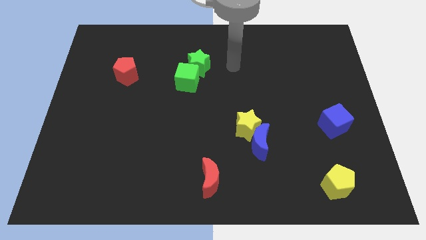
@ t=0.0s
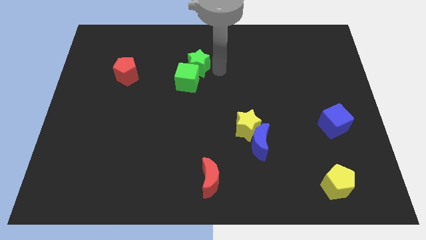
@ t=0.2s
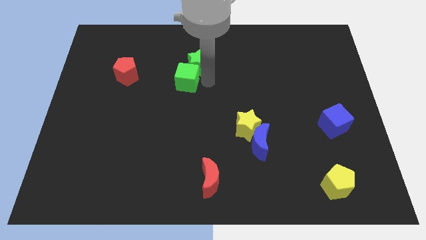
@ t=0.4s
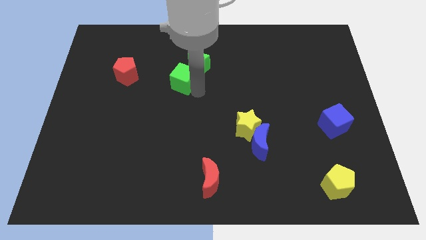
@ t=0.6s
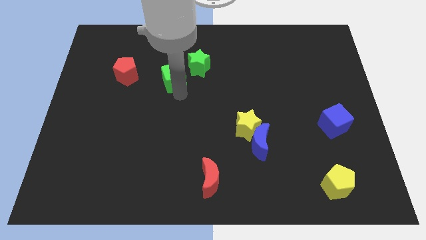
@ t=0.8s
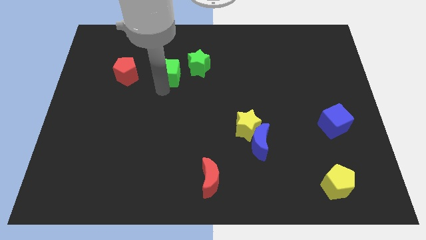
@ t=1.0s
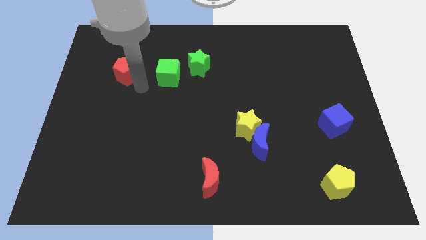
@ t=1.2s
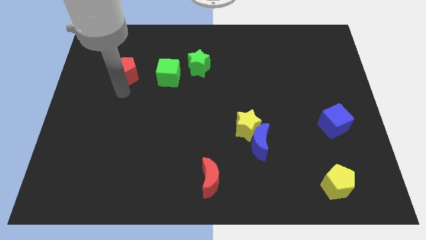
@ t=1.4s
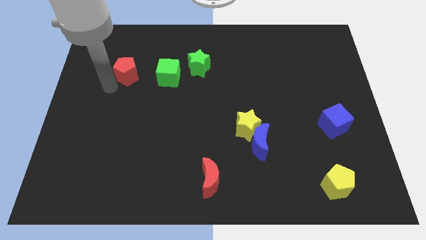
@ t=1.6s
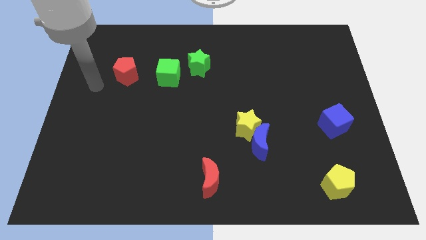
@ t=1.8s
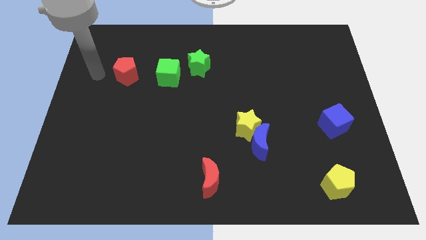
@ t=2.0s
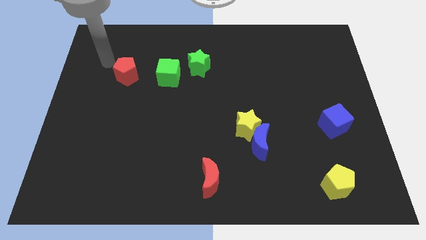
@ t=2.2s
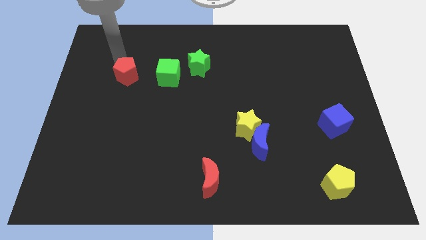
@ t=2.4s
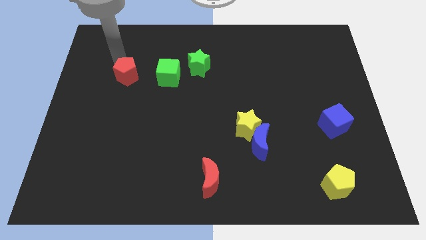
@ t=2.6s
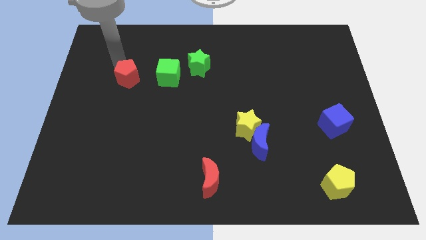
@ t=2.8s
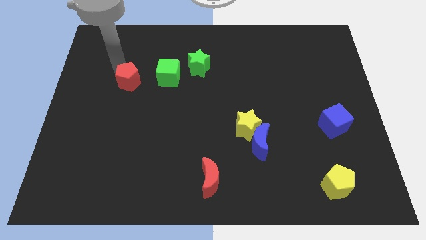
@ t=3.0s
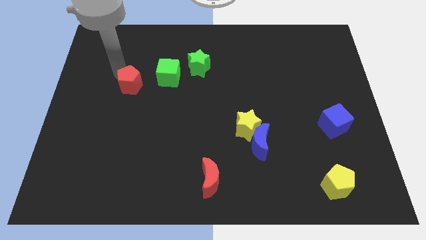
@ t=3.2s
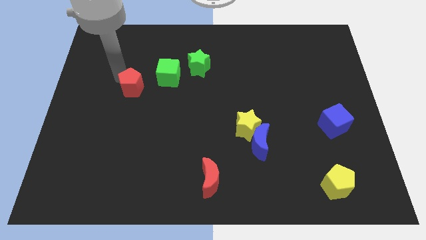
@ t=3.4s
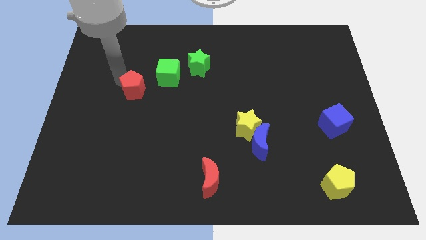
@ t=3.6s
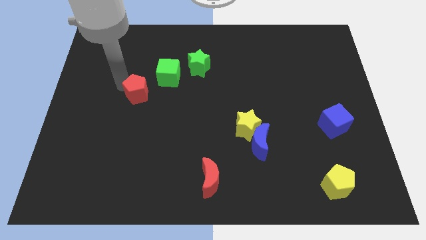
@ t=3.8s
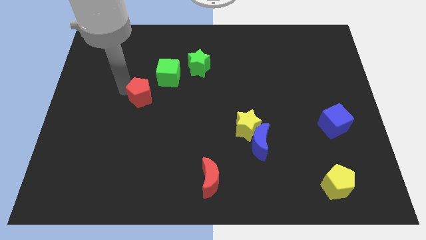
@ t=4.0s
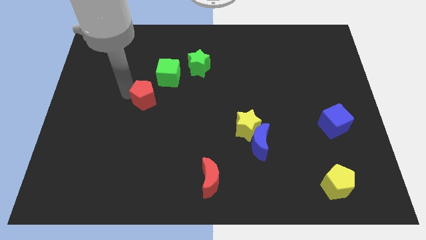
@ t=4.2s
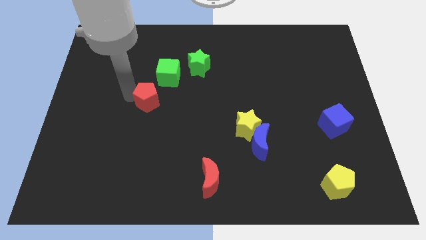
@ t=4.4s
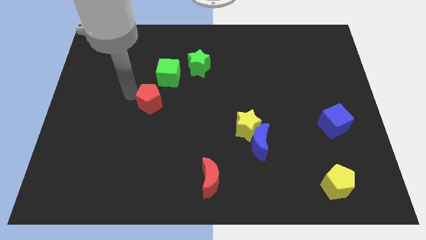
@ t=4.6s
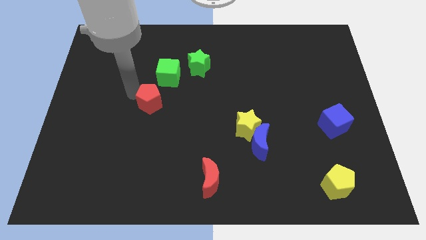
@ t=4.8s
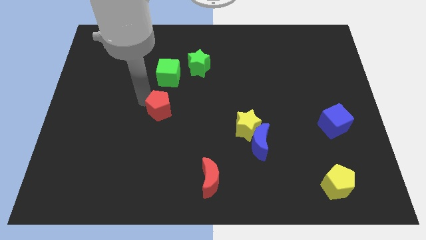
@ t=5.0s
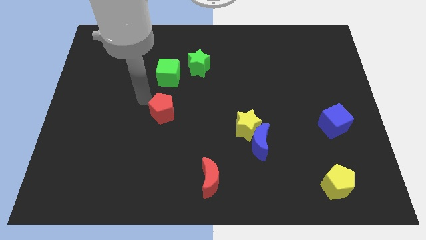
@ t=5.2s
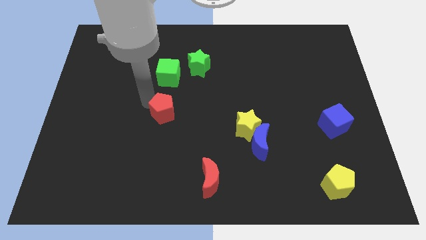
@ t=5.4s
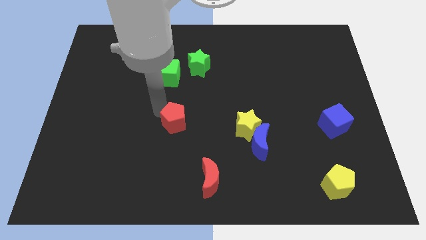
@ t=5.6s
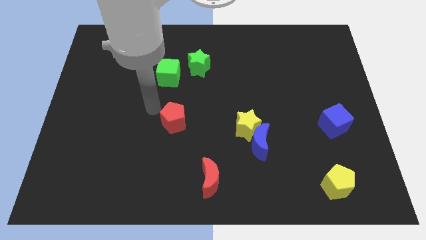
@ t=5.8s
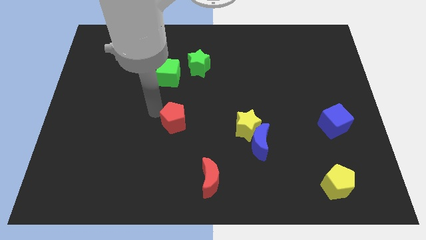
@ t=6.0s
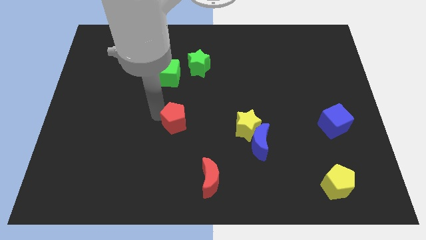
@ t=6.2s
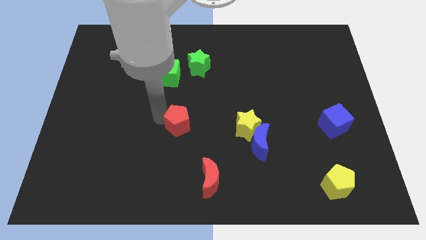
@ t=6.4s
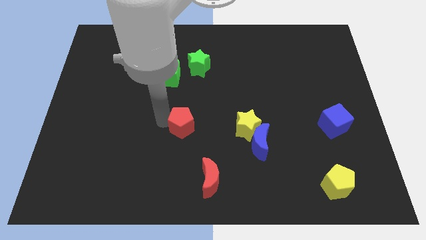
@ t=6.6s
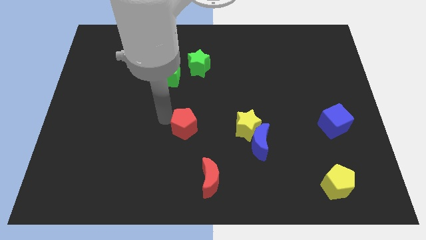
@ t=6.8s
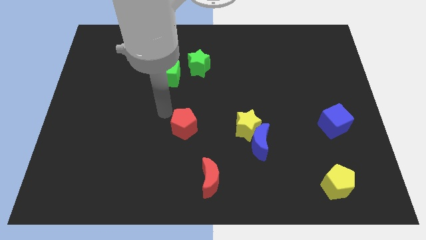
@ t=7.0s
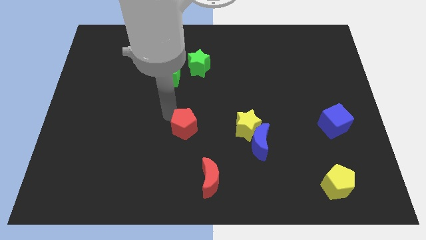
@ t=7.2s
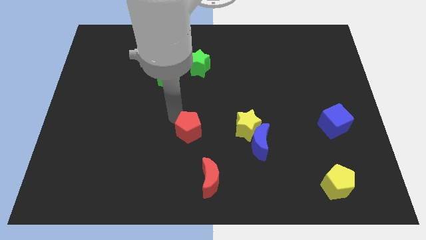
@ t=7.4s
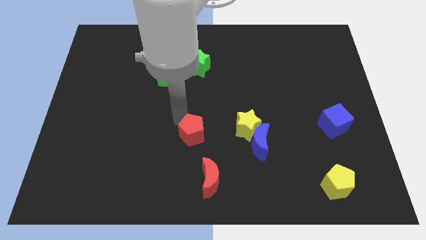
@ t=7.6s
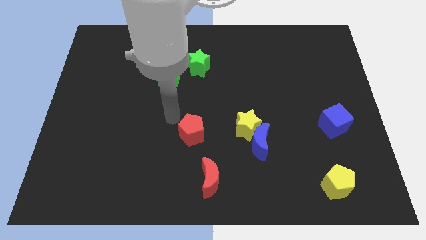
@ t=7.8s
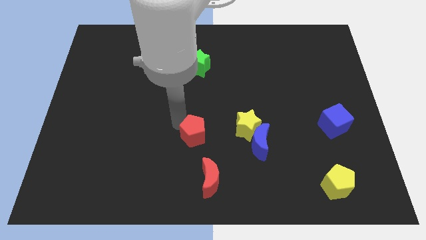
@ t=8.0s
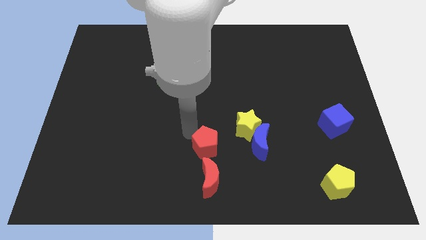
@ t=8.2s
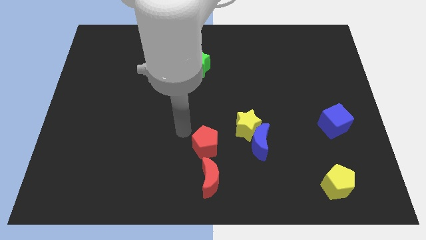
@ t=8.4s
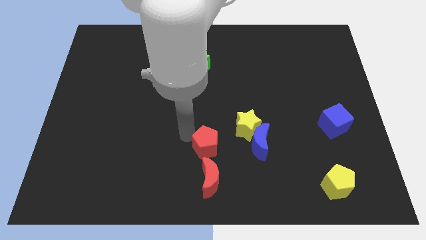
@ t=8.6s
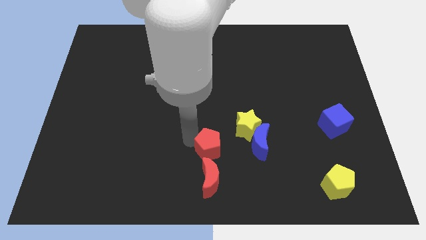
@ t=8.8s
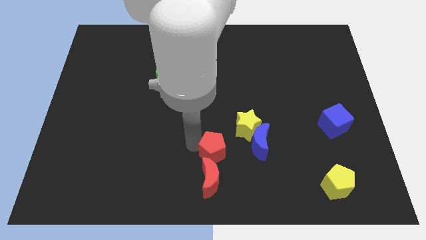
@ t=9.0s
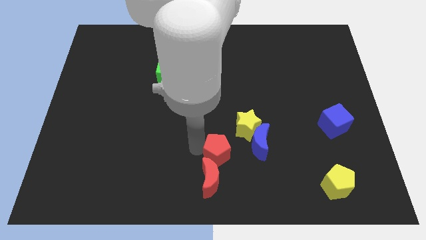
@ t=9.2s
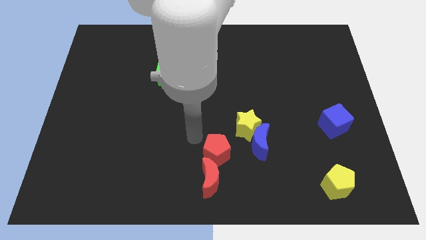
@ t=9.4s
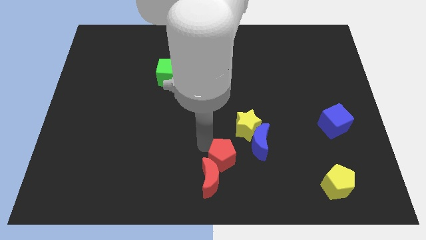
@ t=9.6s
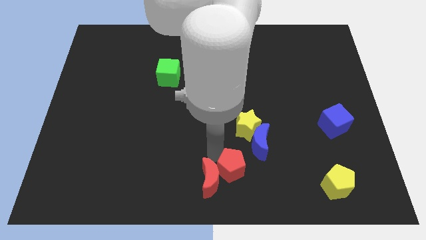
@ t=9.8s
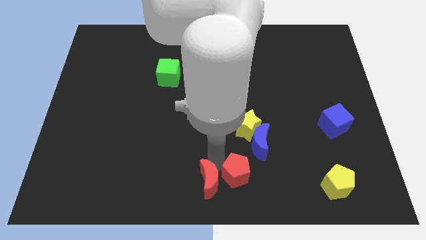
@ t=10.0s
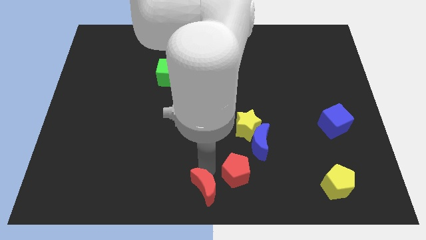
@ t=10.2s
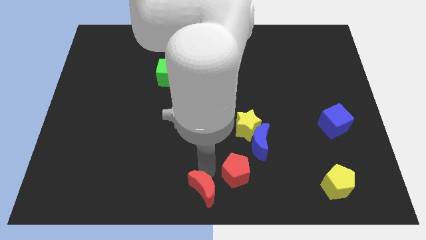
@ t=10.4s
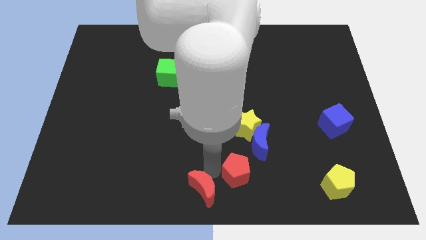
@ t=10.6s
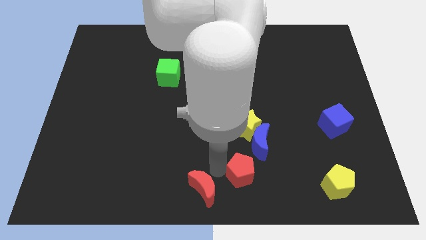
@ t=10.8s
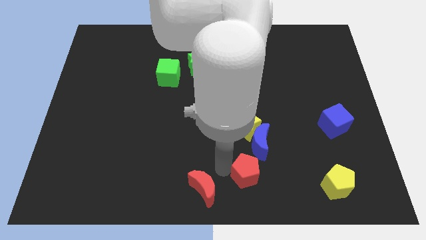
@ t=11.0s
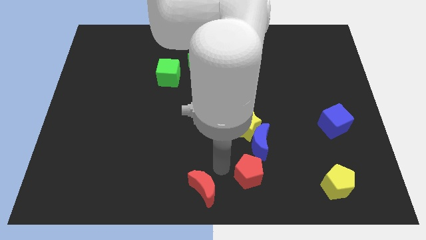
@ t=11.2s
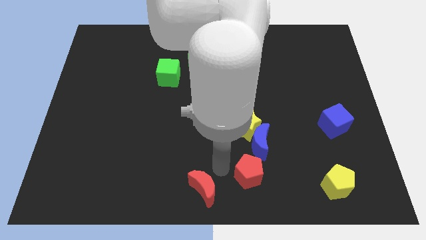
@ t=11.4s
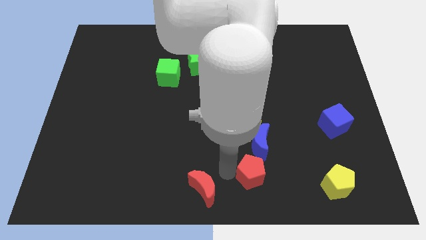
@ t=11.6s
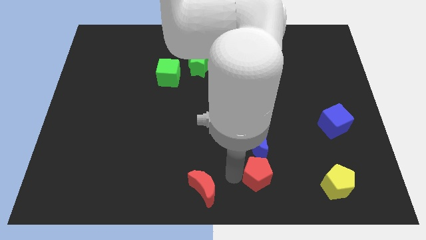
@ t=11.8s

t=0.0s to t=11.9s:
push the red pentagon to the left side of the yellow pentagon

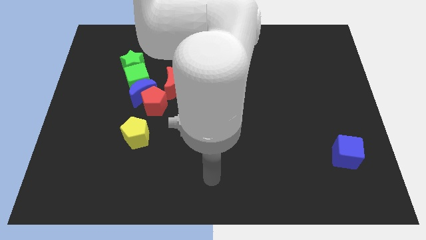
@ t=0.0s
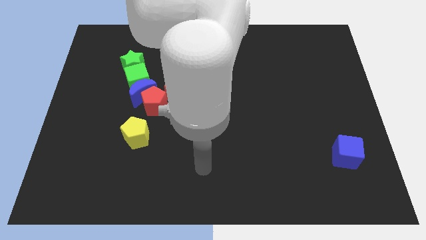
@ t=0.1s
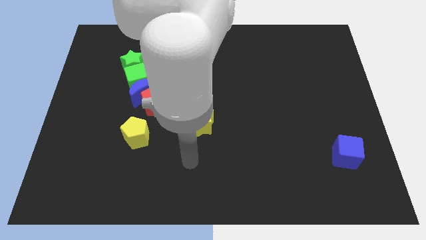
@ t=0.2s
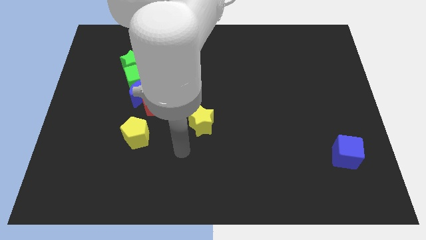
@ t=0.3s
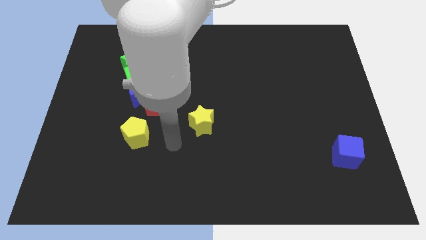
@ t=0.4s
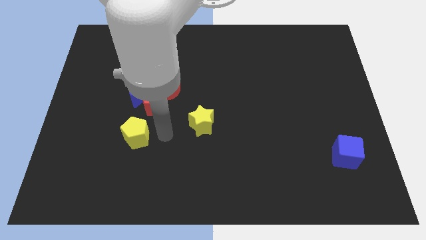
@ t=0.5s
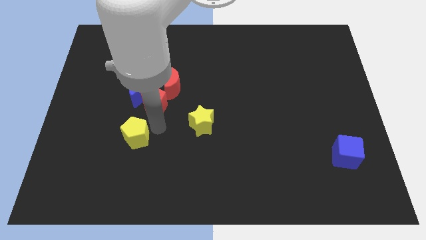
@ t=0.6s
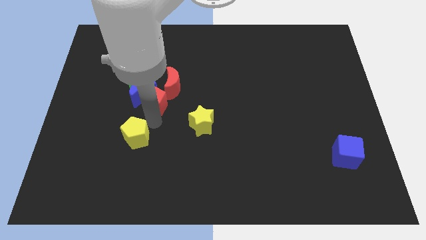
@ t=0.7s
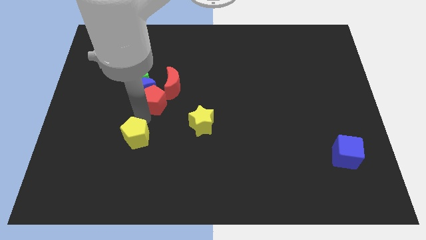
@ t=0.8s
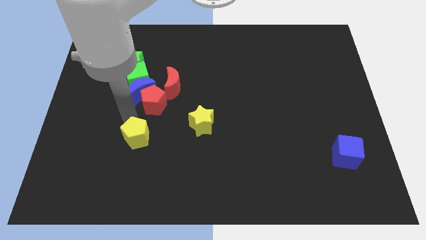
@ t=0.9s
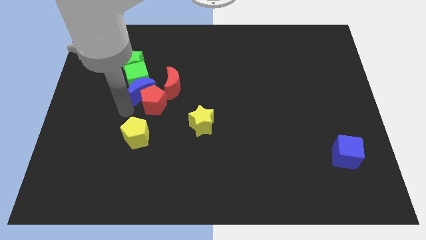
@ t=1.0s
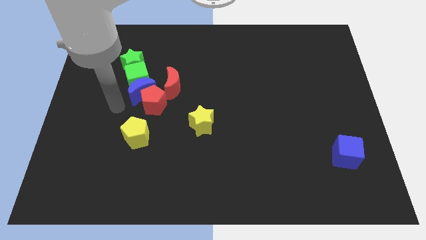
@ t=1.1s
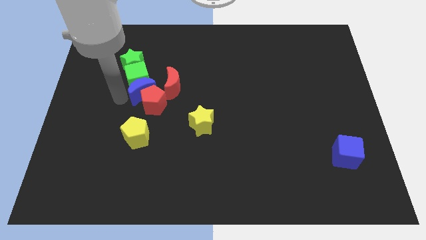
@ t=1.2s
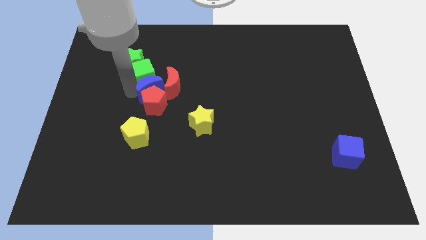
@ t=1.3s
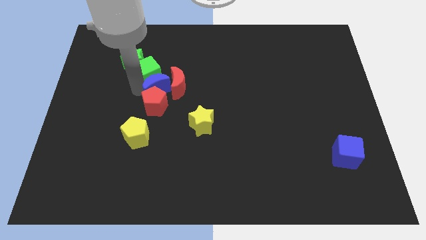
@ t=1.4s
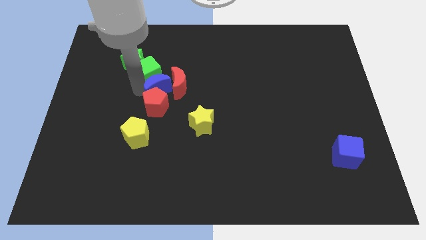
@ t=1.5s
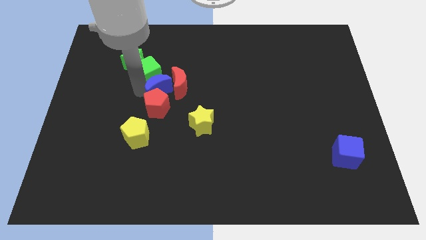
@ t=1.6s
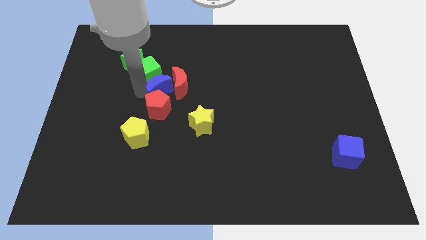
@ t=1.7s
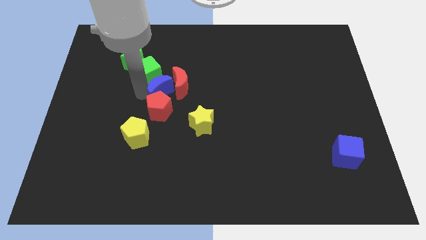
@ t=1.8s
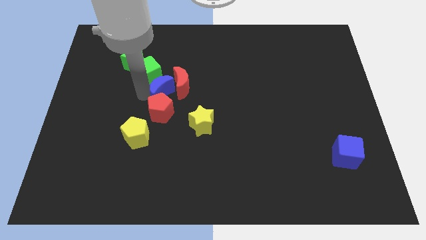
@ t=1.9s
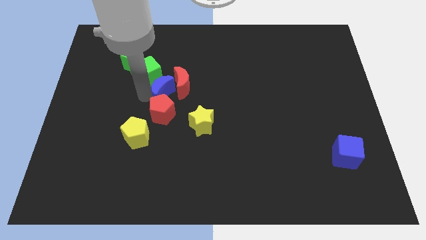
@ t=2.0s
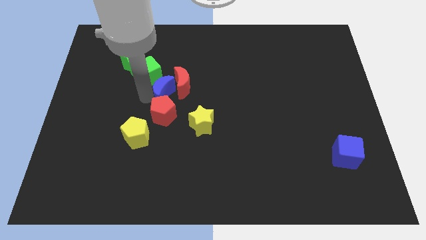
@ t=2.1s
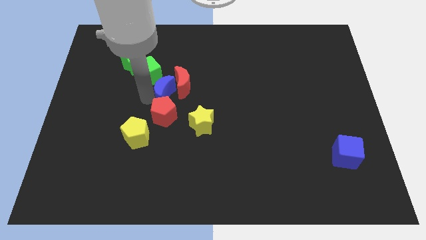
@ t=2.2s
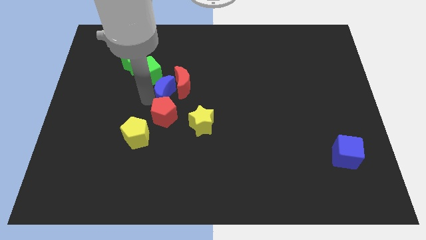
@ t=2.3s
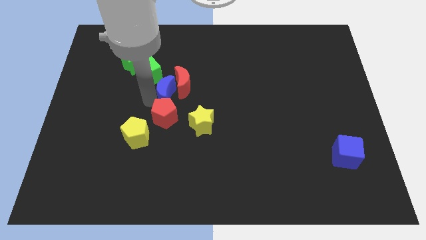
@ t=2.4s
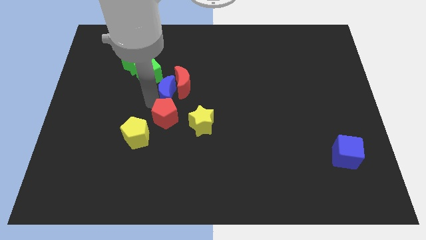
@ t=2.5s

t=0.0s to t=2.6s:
put the red pentagon right of the yellow pentagon
